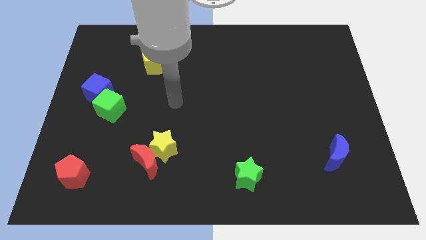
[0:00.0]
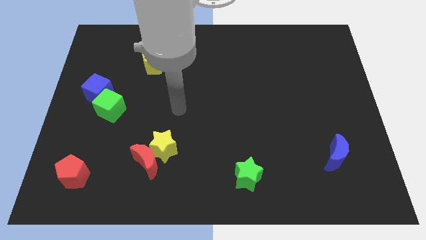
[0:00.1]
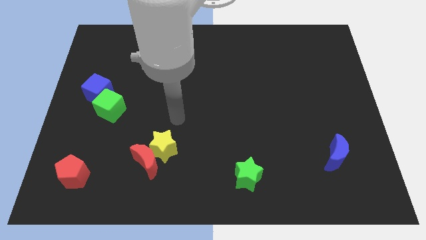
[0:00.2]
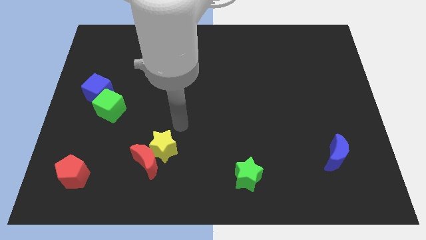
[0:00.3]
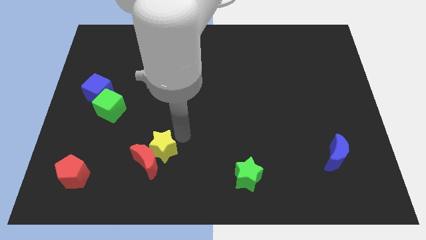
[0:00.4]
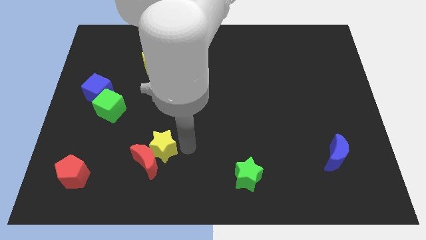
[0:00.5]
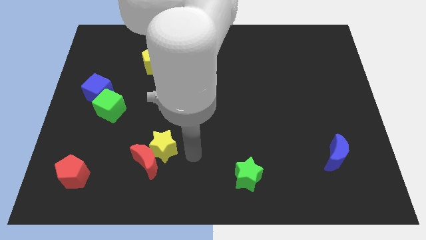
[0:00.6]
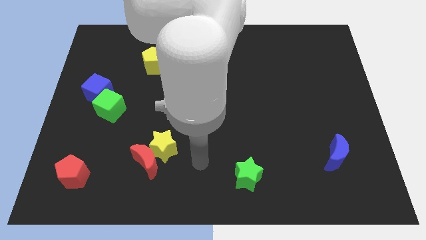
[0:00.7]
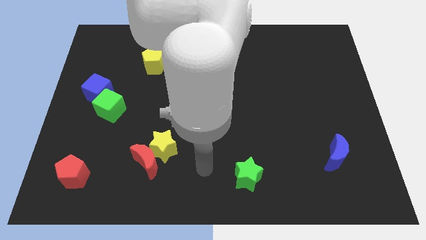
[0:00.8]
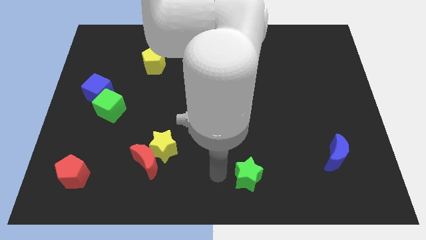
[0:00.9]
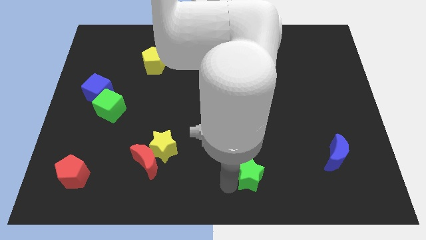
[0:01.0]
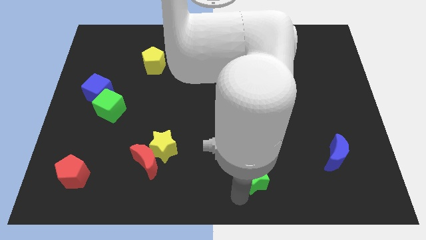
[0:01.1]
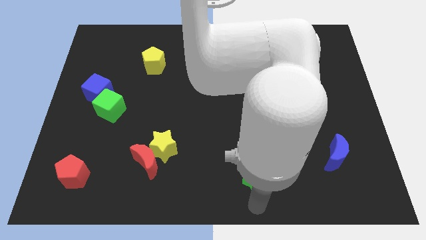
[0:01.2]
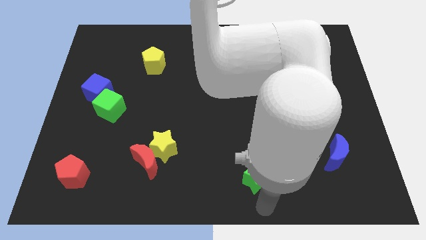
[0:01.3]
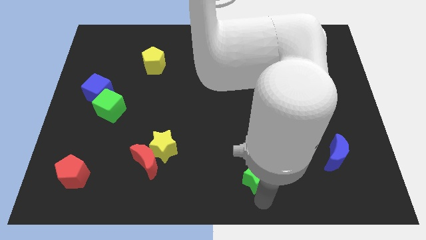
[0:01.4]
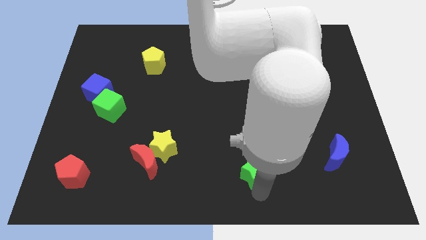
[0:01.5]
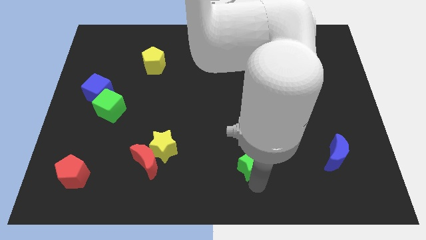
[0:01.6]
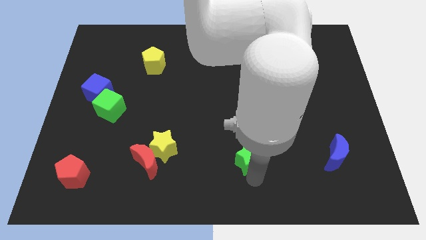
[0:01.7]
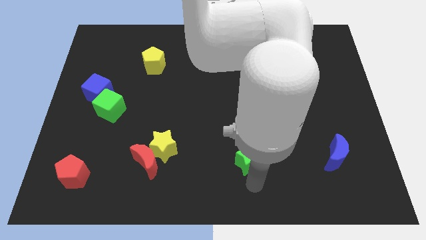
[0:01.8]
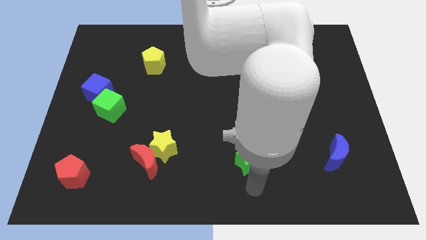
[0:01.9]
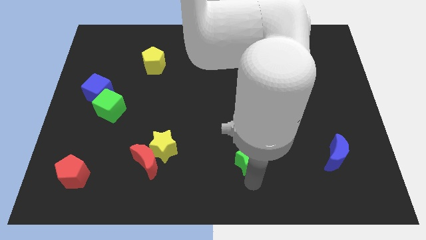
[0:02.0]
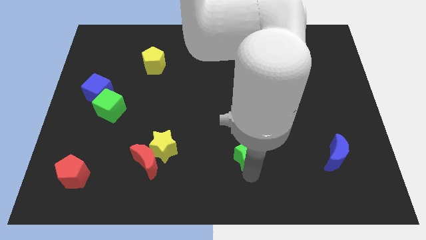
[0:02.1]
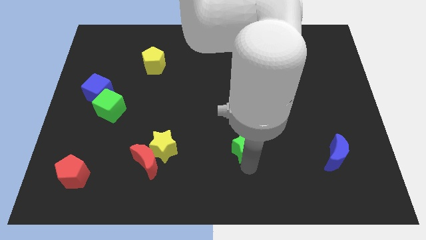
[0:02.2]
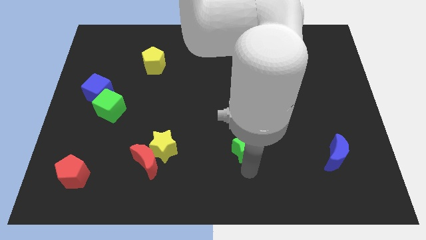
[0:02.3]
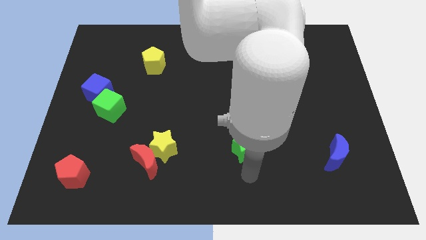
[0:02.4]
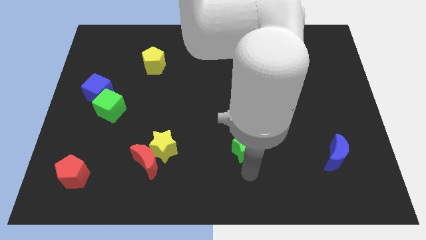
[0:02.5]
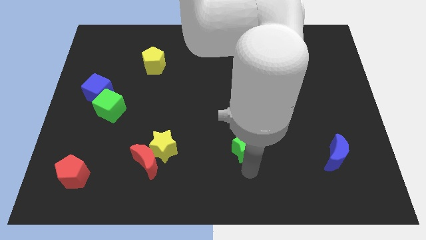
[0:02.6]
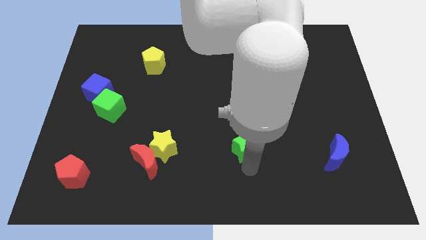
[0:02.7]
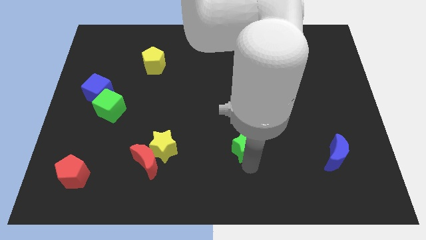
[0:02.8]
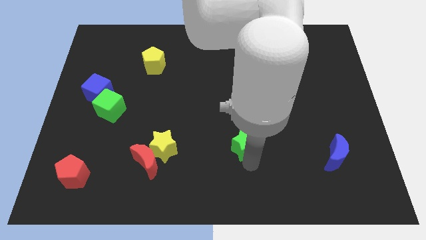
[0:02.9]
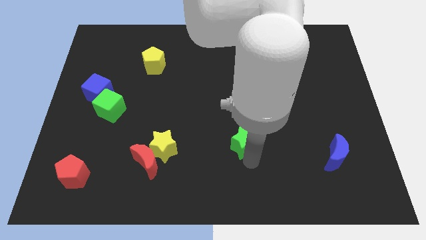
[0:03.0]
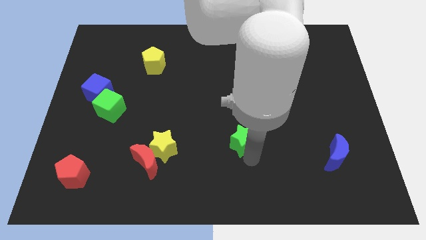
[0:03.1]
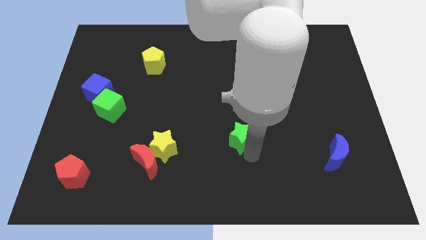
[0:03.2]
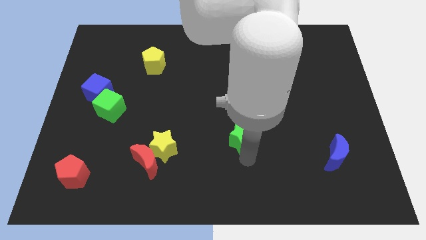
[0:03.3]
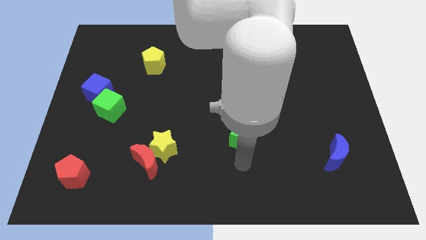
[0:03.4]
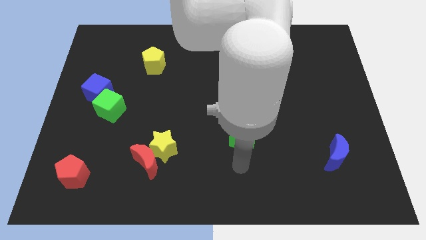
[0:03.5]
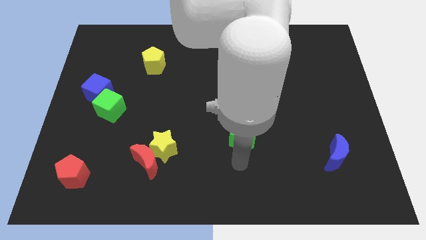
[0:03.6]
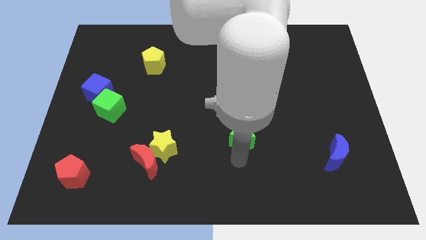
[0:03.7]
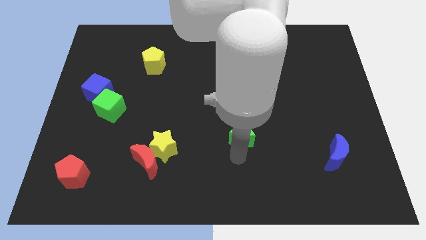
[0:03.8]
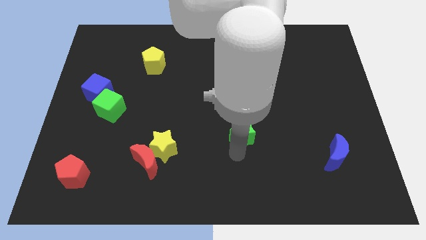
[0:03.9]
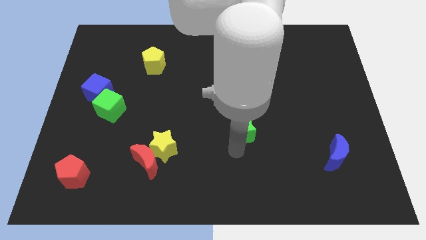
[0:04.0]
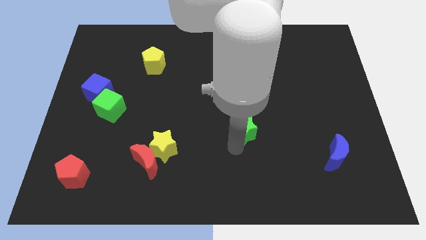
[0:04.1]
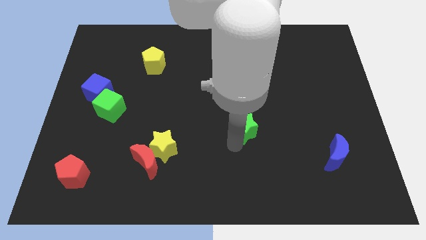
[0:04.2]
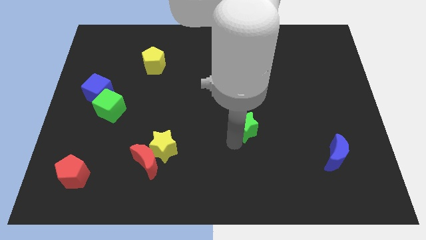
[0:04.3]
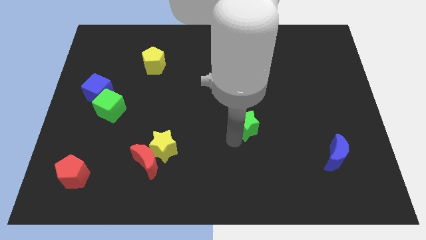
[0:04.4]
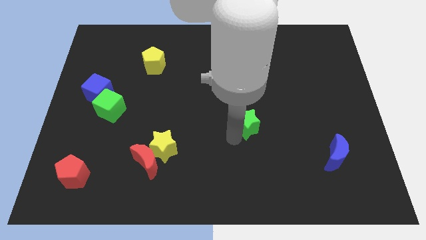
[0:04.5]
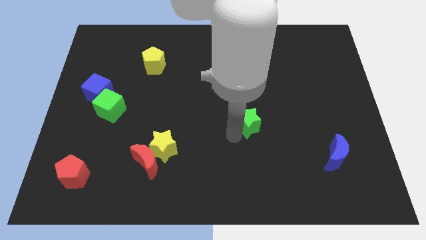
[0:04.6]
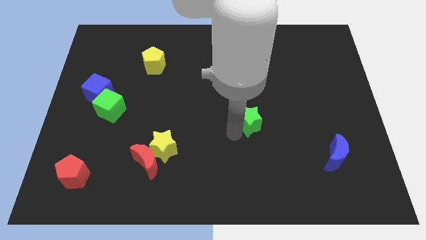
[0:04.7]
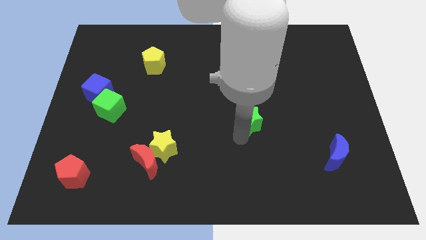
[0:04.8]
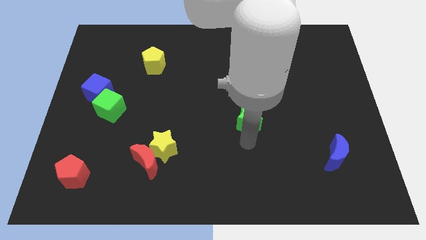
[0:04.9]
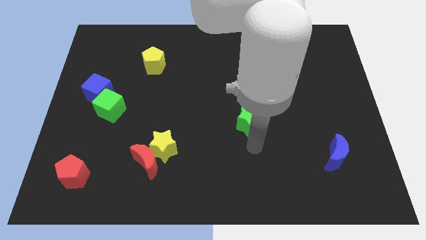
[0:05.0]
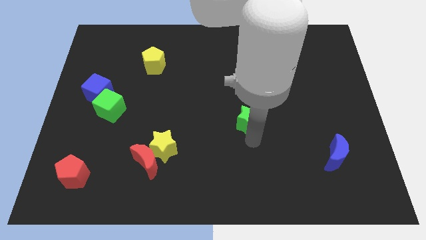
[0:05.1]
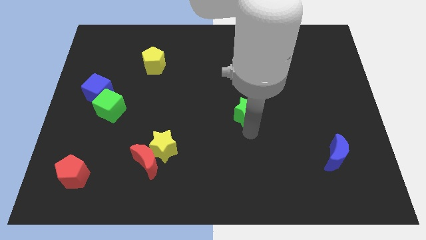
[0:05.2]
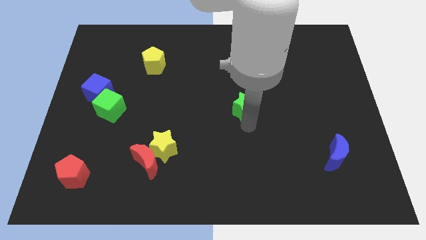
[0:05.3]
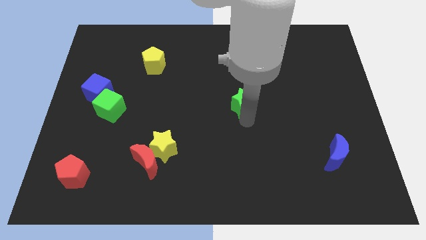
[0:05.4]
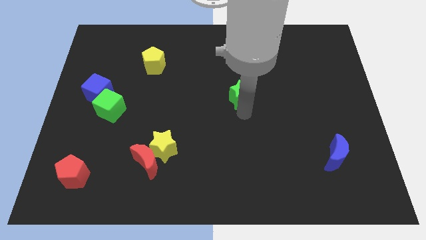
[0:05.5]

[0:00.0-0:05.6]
push the green star up

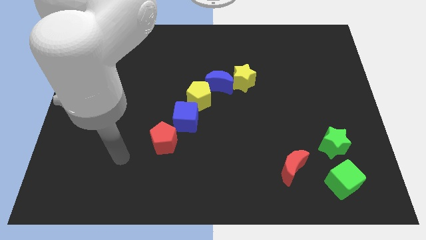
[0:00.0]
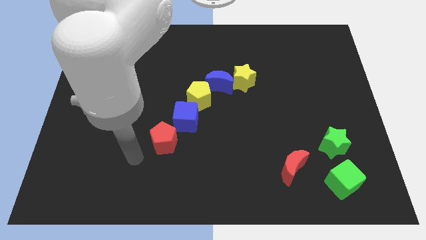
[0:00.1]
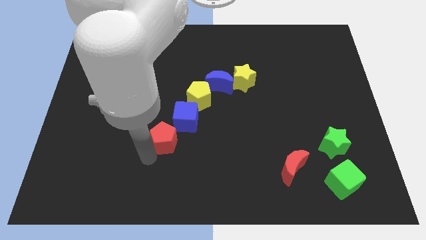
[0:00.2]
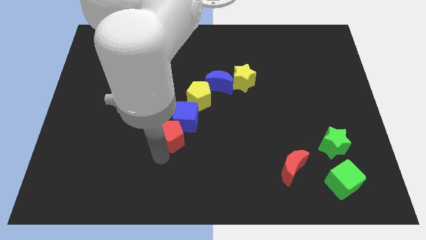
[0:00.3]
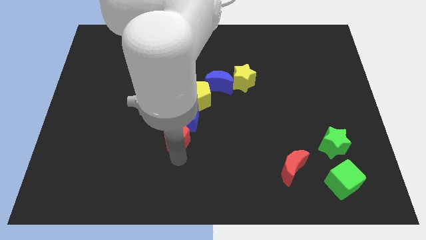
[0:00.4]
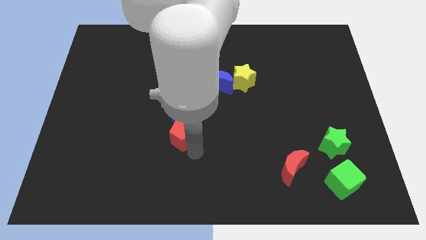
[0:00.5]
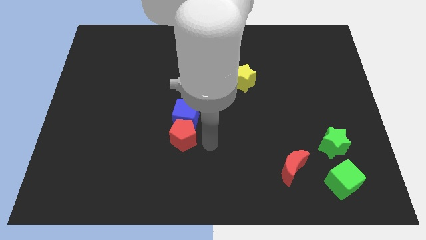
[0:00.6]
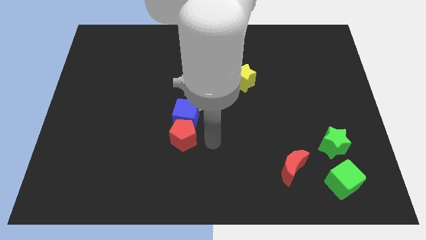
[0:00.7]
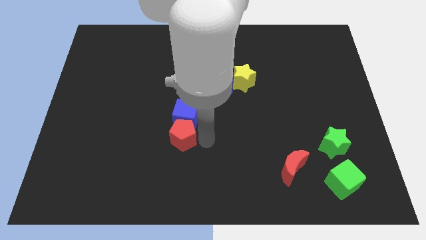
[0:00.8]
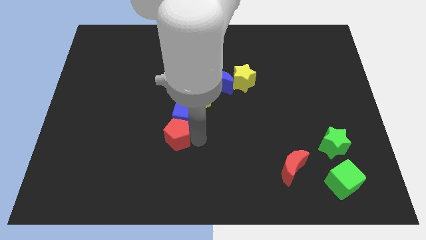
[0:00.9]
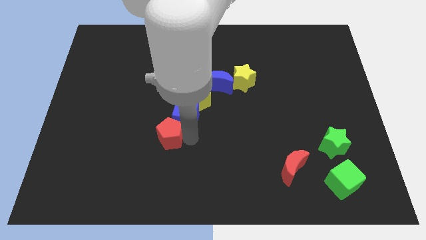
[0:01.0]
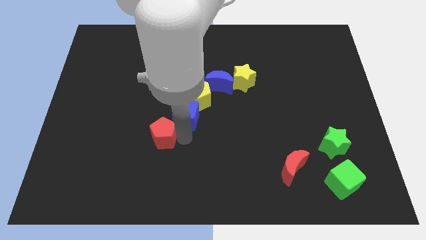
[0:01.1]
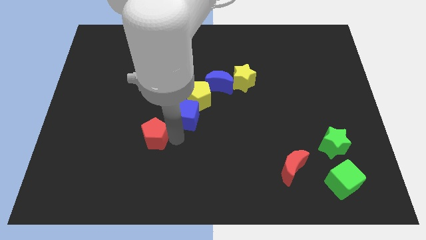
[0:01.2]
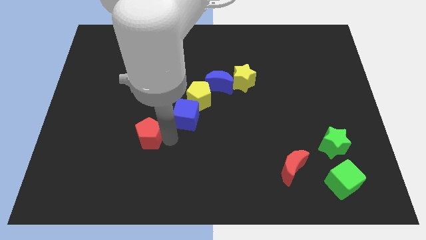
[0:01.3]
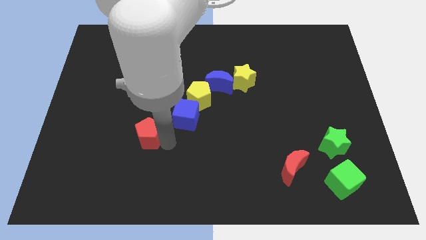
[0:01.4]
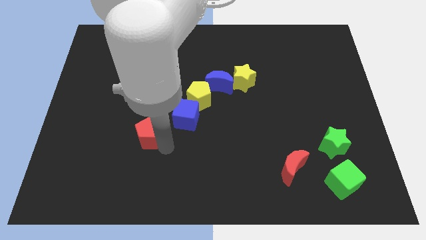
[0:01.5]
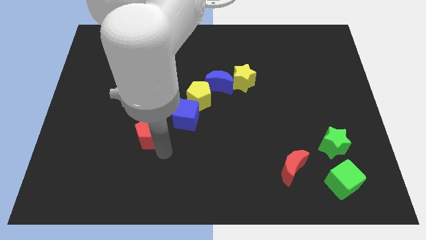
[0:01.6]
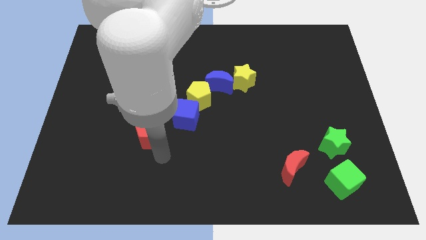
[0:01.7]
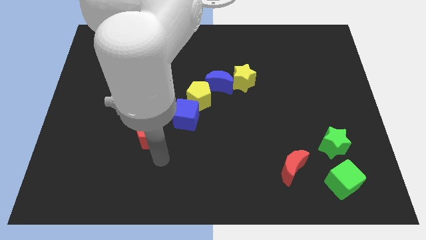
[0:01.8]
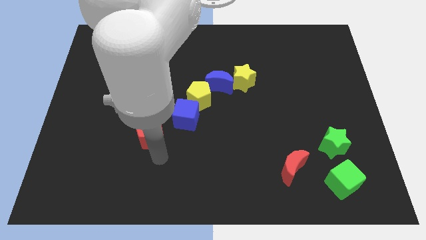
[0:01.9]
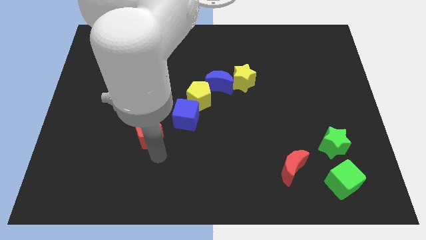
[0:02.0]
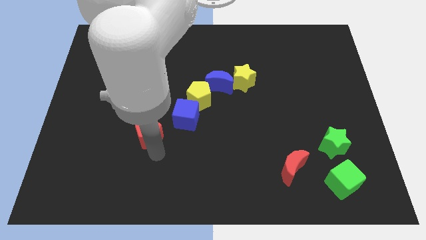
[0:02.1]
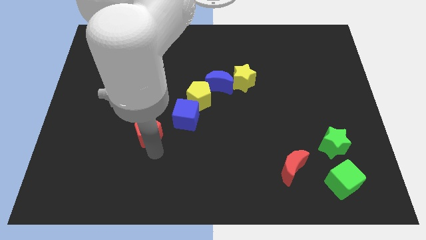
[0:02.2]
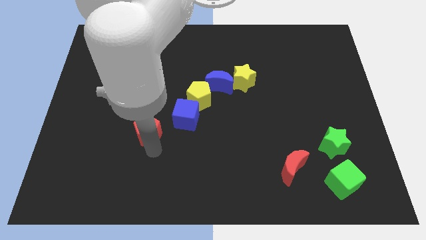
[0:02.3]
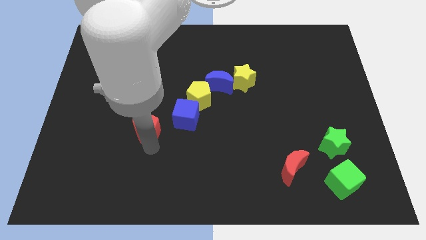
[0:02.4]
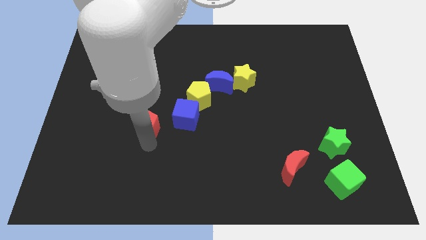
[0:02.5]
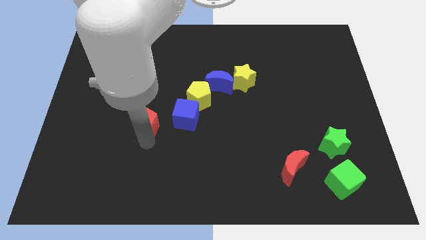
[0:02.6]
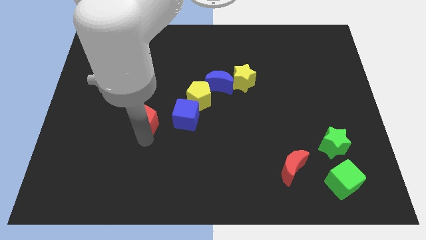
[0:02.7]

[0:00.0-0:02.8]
slightly slide the red pentagon up and left diagonally
